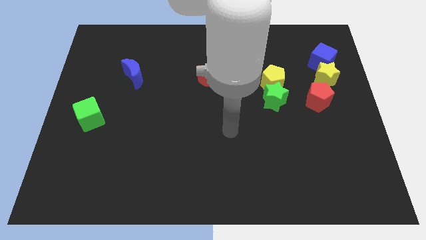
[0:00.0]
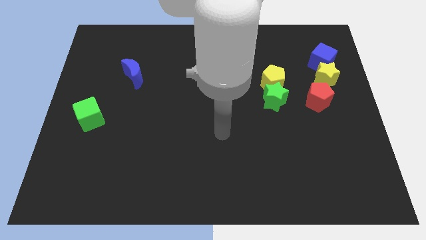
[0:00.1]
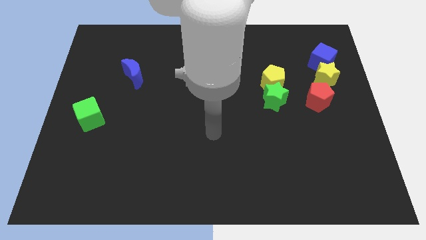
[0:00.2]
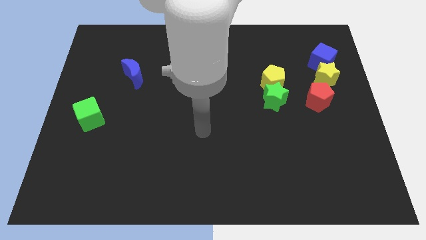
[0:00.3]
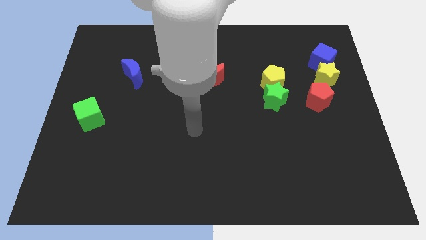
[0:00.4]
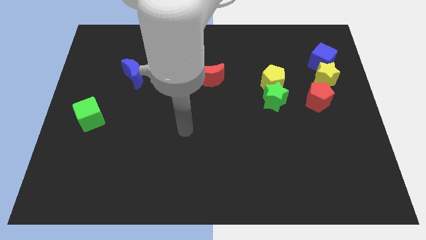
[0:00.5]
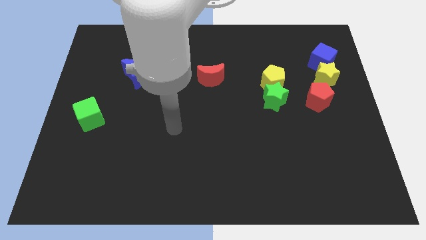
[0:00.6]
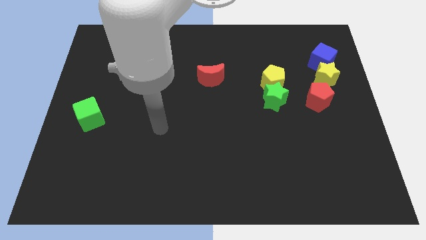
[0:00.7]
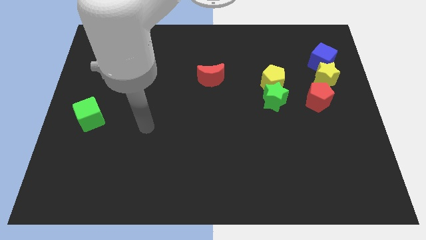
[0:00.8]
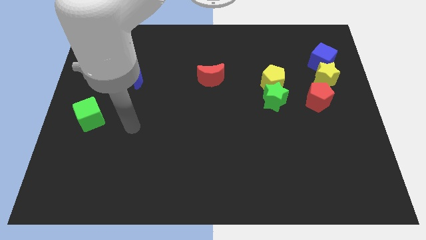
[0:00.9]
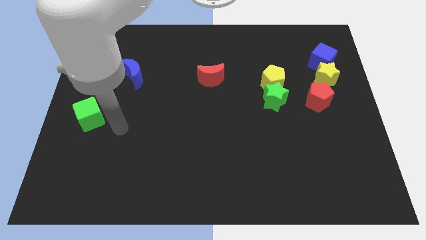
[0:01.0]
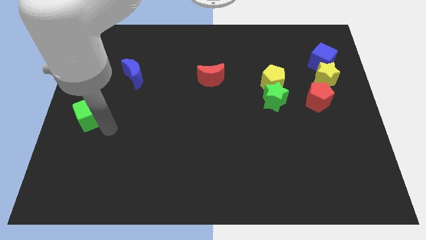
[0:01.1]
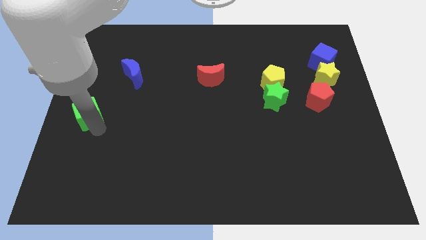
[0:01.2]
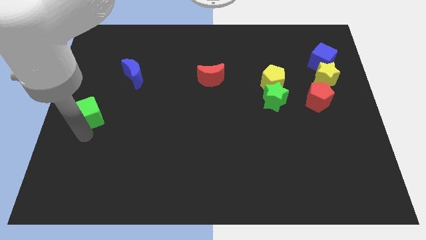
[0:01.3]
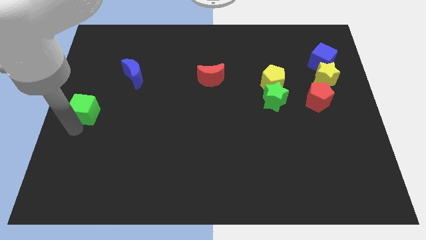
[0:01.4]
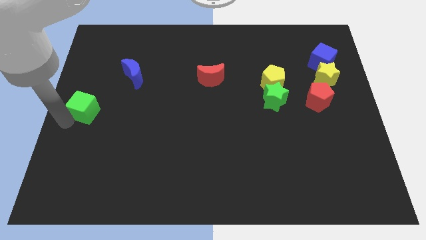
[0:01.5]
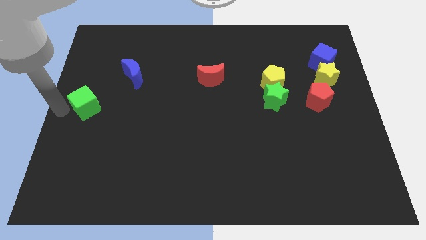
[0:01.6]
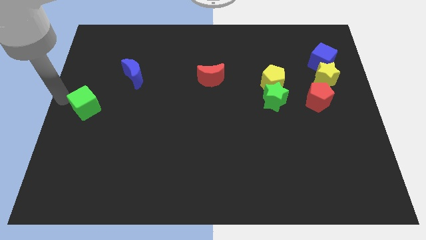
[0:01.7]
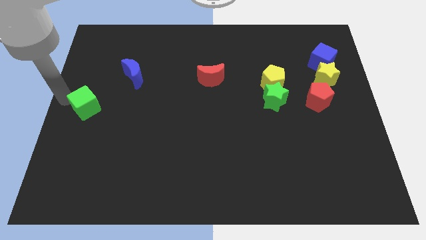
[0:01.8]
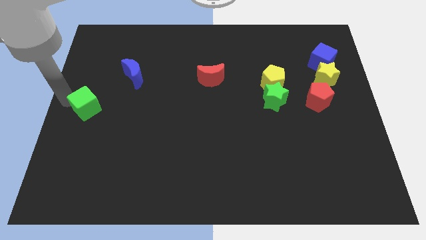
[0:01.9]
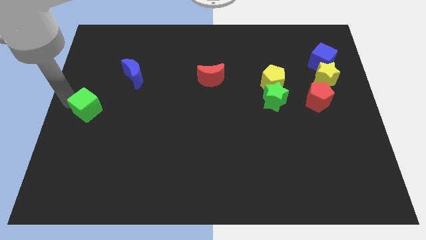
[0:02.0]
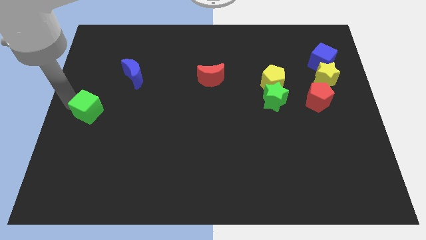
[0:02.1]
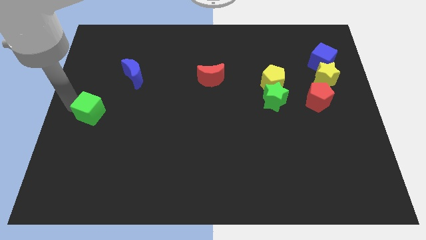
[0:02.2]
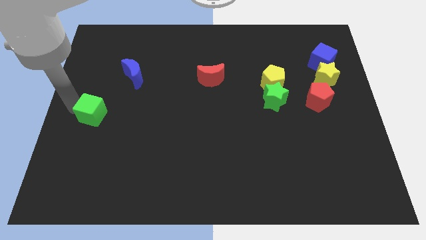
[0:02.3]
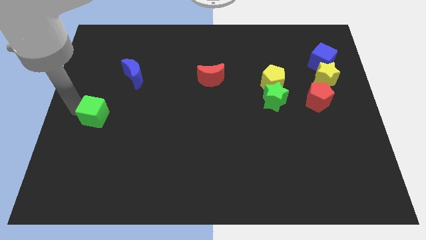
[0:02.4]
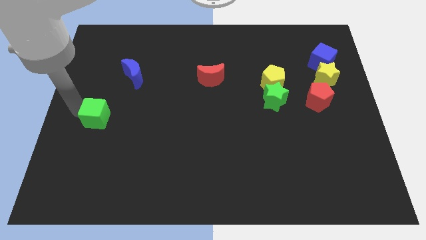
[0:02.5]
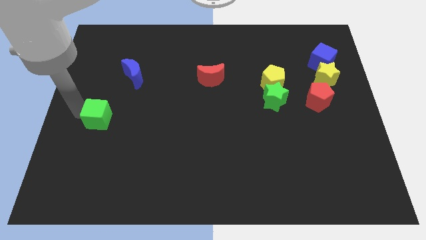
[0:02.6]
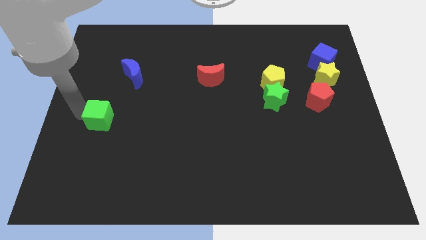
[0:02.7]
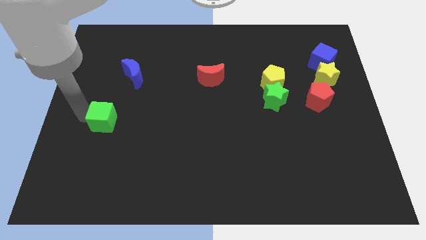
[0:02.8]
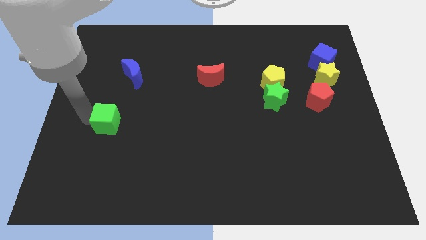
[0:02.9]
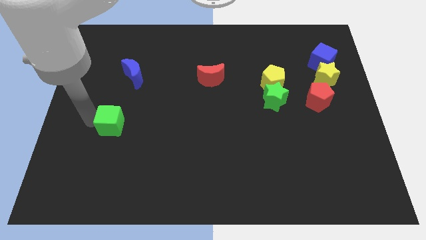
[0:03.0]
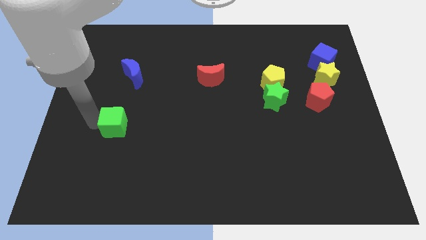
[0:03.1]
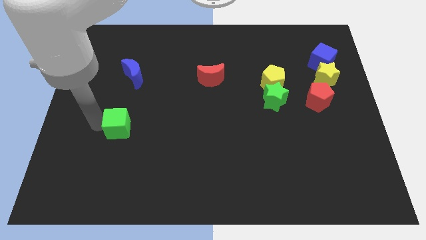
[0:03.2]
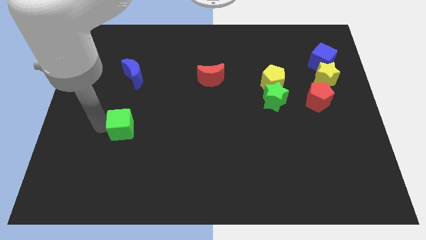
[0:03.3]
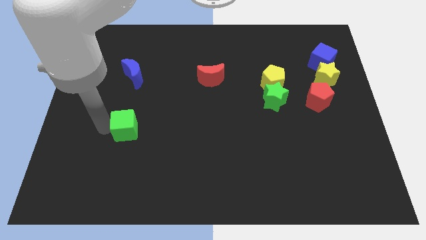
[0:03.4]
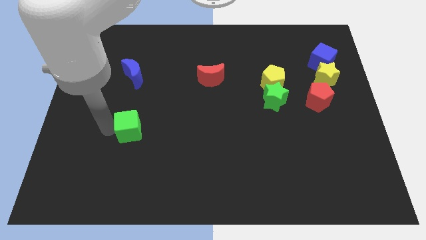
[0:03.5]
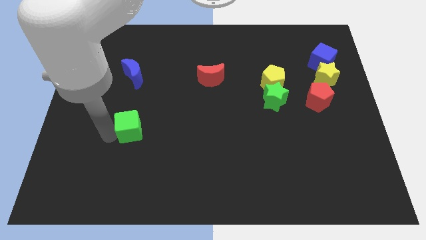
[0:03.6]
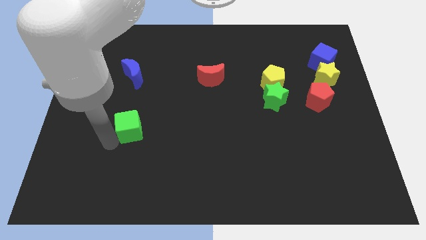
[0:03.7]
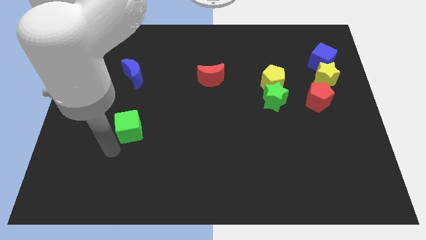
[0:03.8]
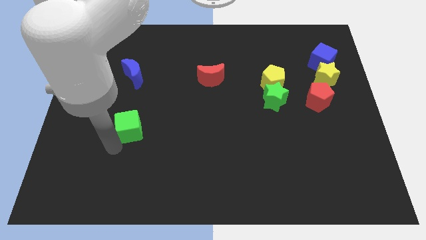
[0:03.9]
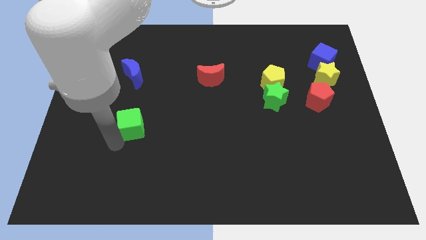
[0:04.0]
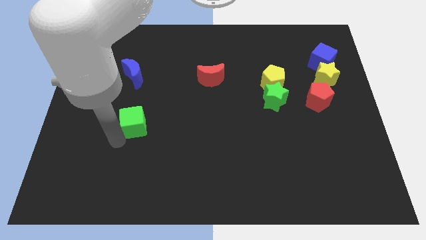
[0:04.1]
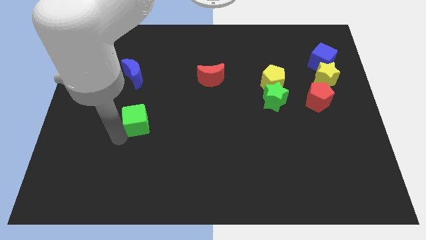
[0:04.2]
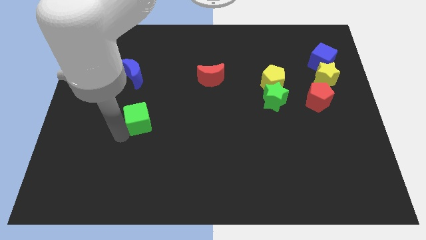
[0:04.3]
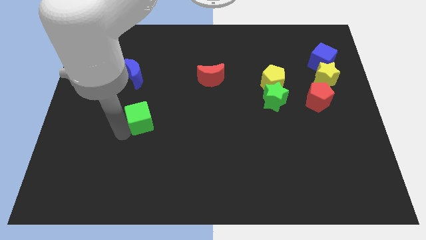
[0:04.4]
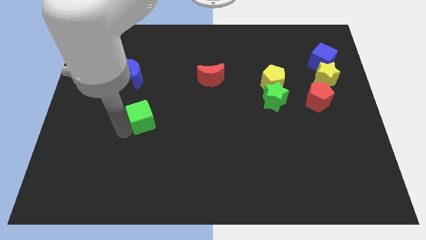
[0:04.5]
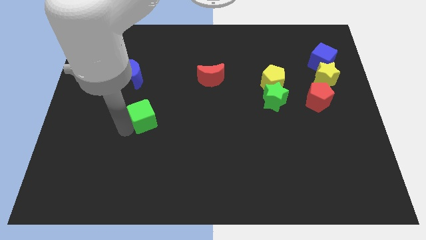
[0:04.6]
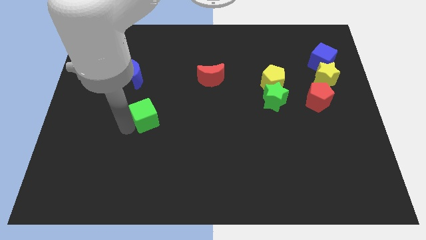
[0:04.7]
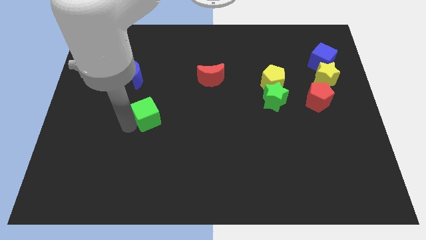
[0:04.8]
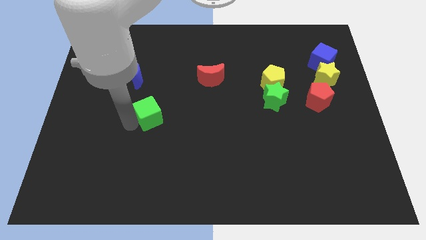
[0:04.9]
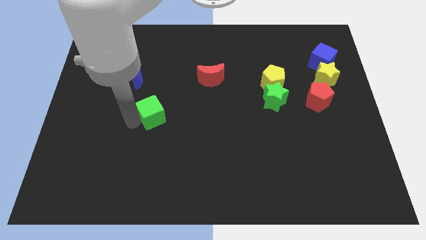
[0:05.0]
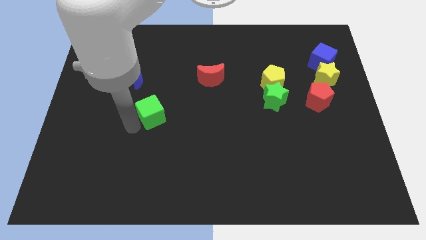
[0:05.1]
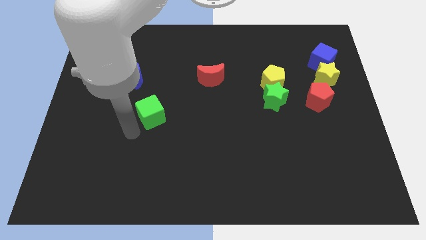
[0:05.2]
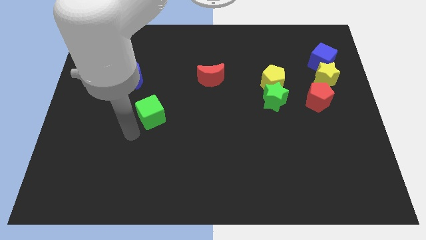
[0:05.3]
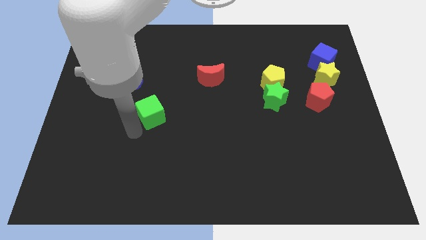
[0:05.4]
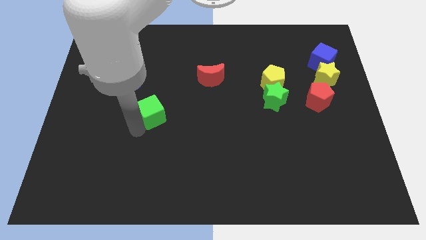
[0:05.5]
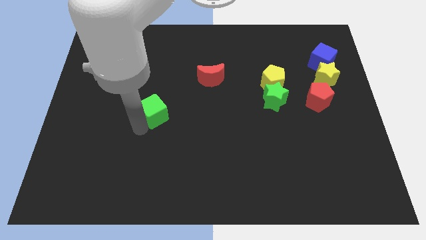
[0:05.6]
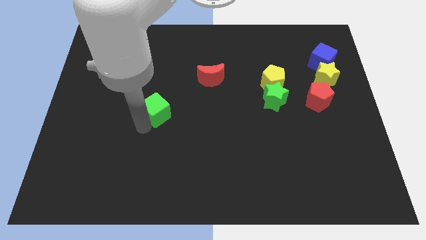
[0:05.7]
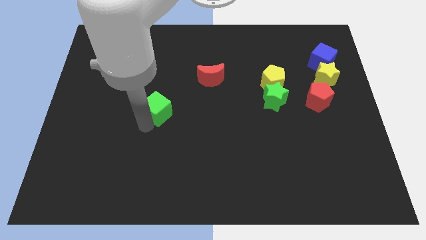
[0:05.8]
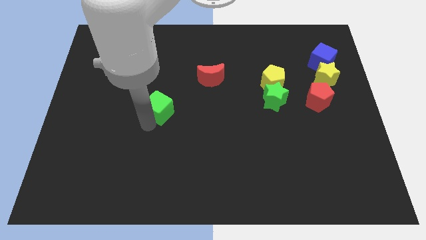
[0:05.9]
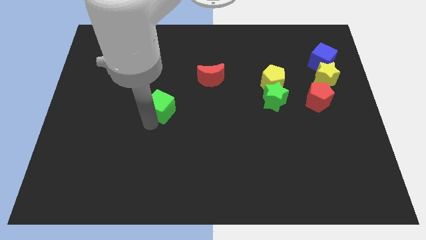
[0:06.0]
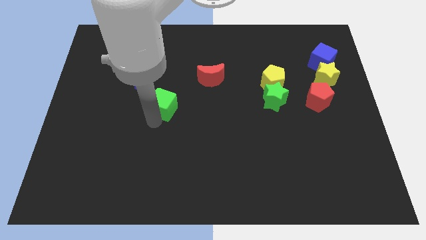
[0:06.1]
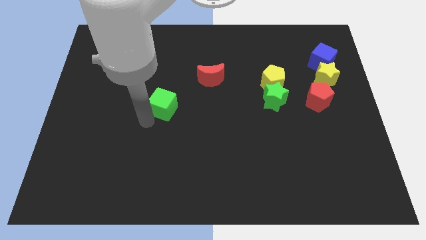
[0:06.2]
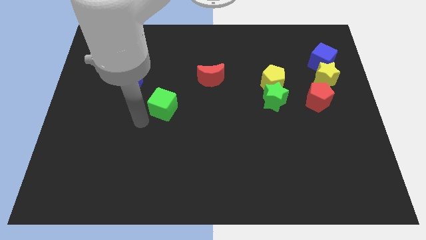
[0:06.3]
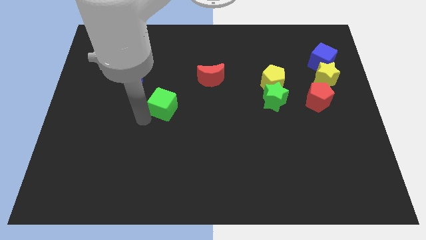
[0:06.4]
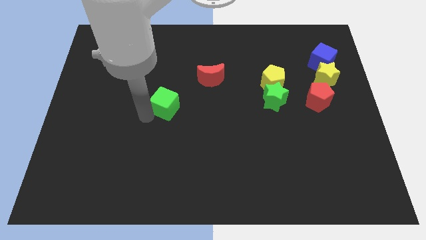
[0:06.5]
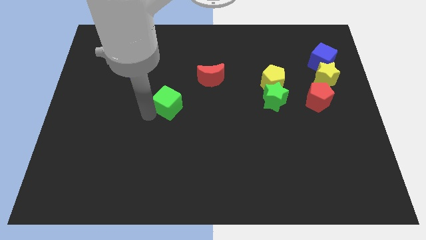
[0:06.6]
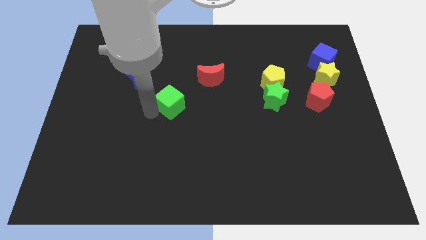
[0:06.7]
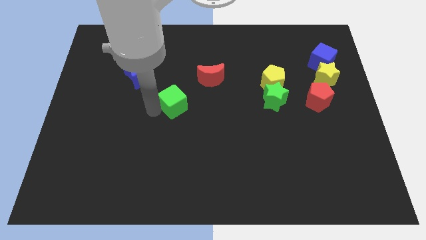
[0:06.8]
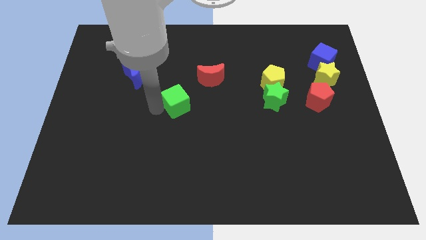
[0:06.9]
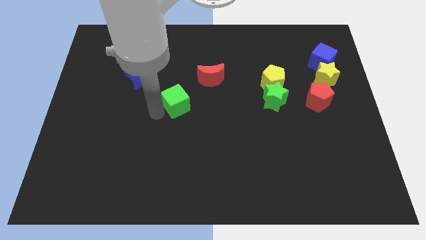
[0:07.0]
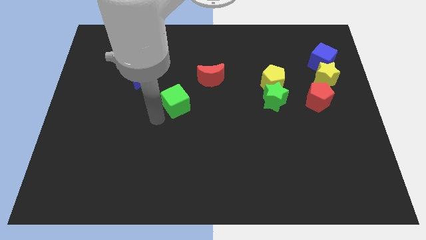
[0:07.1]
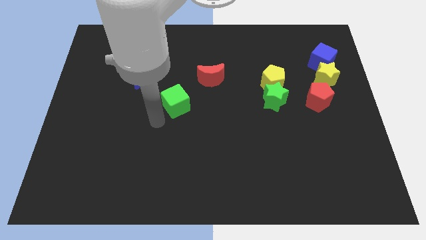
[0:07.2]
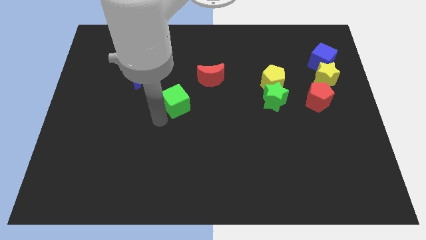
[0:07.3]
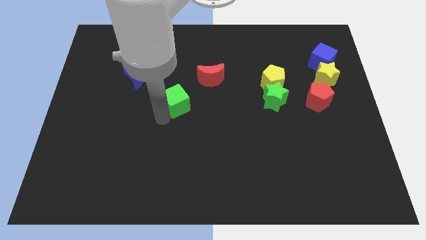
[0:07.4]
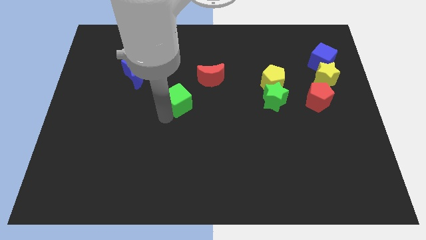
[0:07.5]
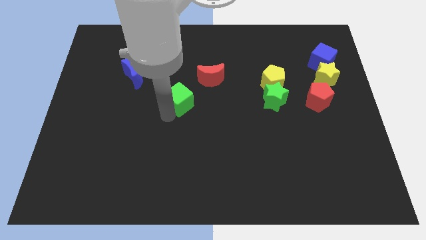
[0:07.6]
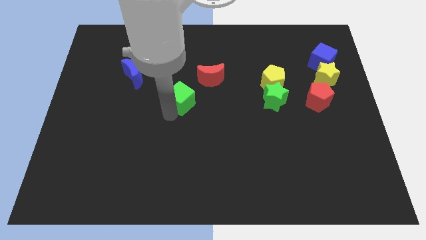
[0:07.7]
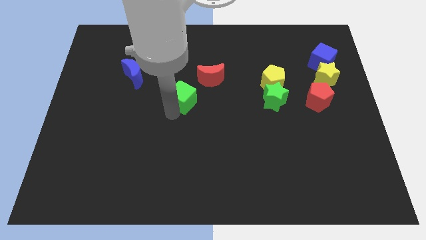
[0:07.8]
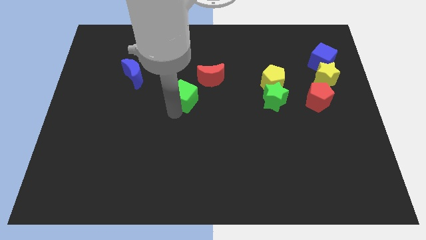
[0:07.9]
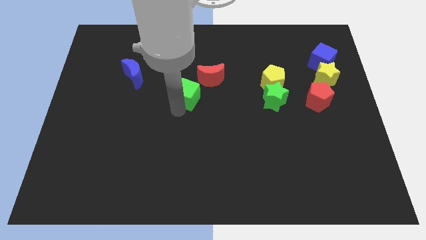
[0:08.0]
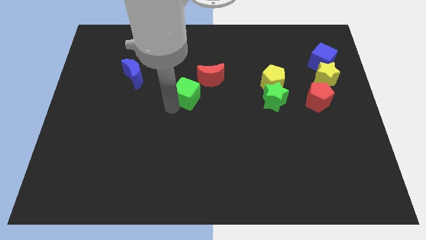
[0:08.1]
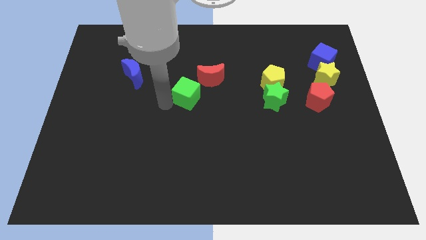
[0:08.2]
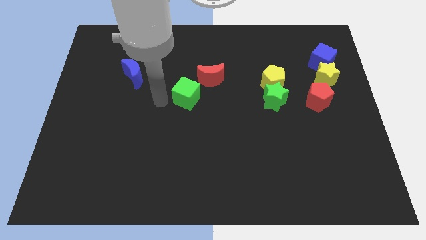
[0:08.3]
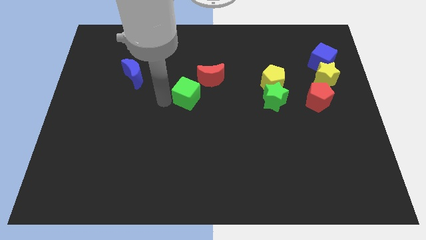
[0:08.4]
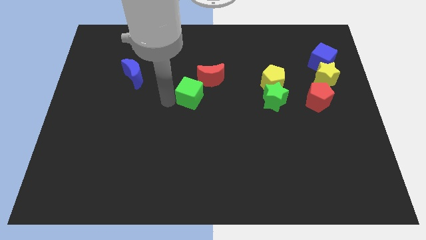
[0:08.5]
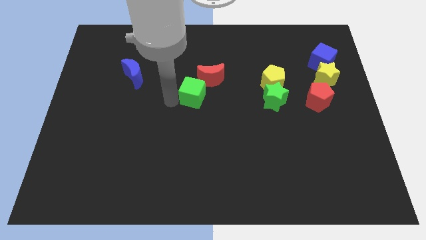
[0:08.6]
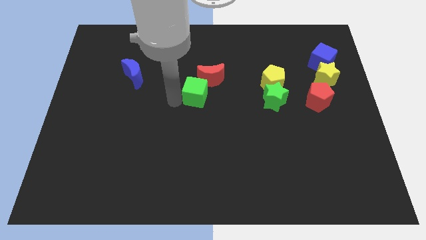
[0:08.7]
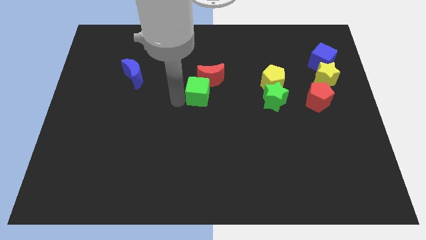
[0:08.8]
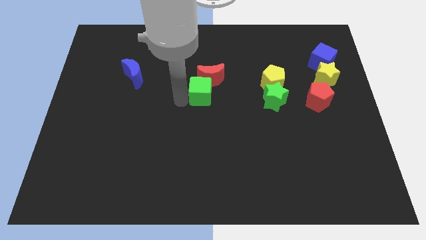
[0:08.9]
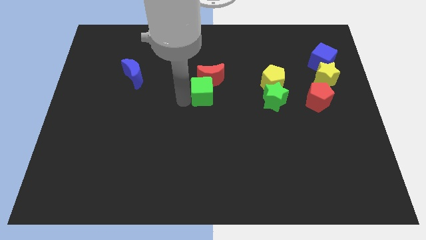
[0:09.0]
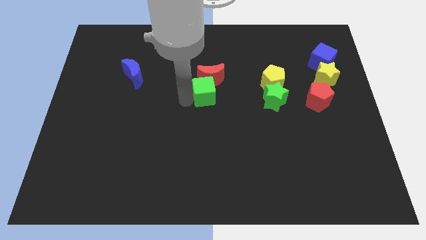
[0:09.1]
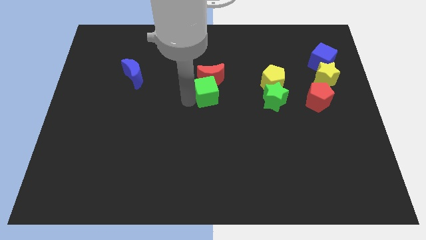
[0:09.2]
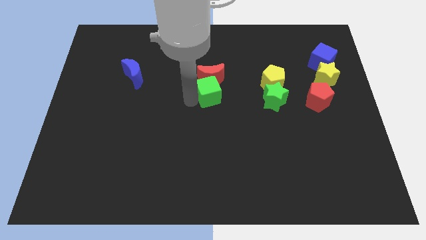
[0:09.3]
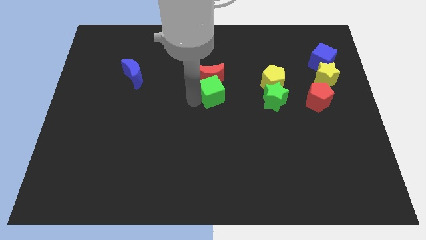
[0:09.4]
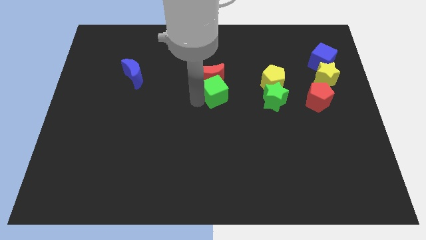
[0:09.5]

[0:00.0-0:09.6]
move the green cube to the left side of the yellow pentagon
